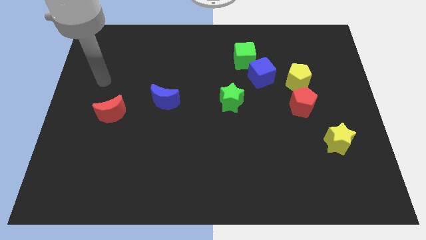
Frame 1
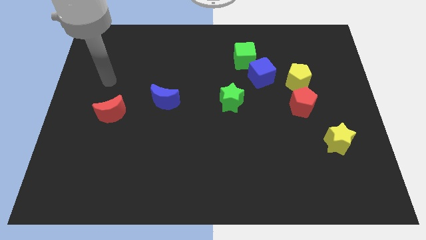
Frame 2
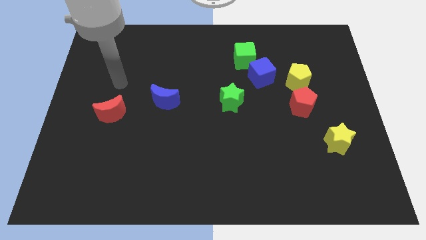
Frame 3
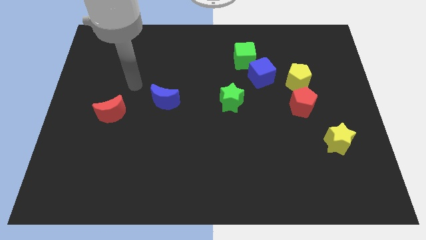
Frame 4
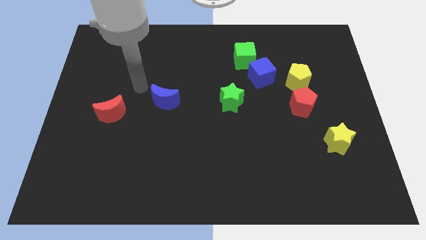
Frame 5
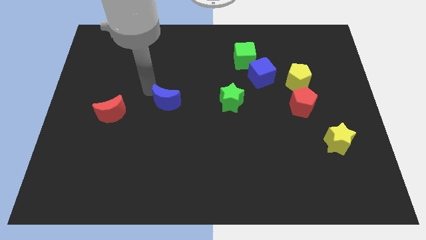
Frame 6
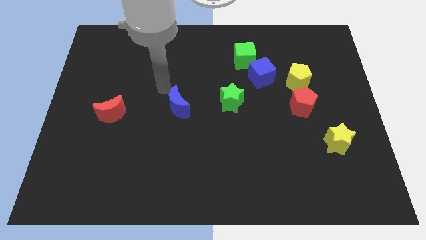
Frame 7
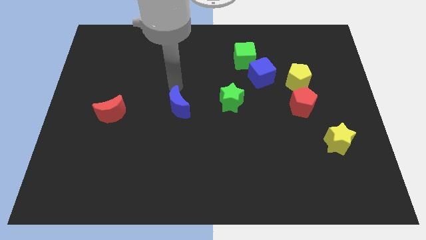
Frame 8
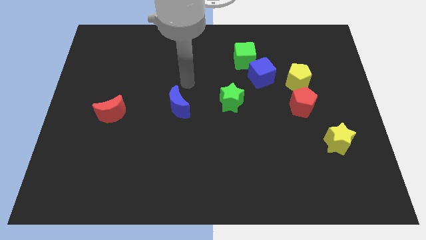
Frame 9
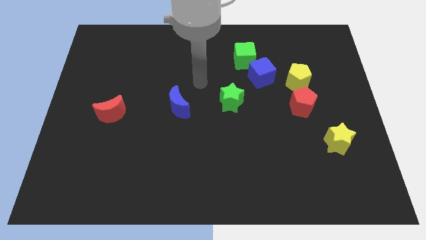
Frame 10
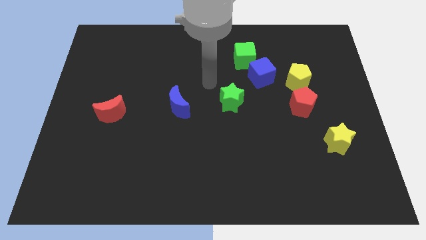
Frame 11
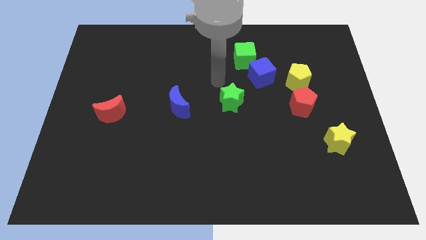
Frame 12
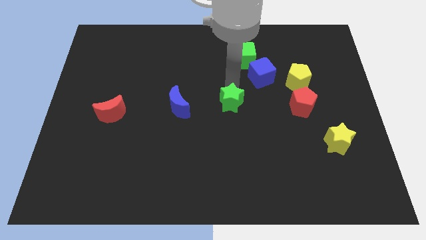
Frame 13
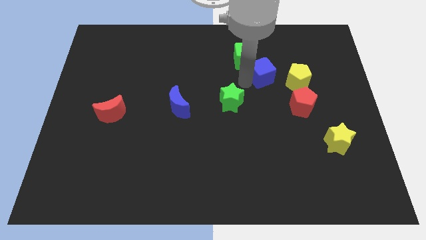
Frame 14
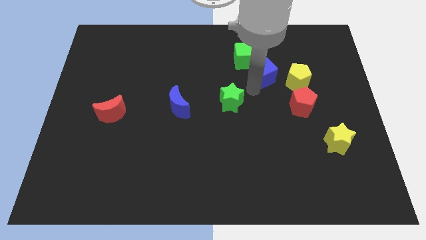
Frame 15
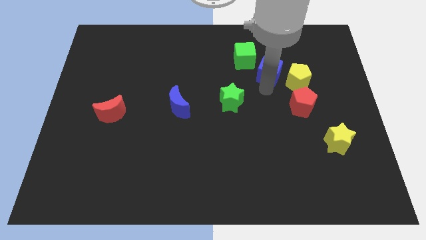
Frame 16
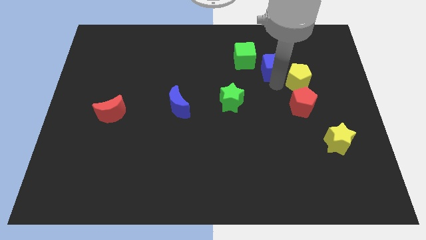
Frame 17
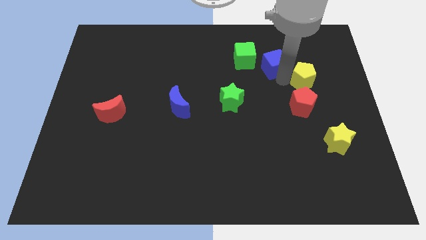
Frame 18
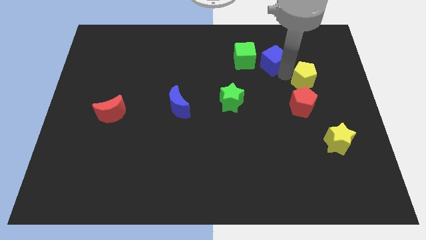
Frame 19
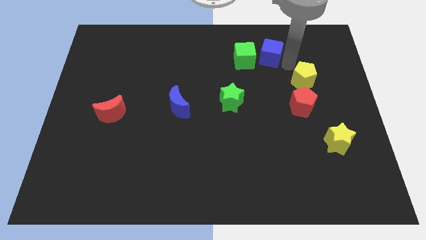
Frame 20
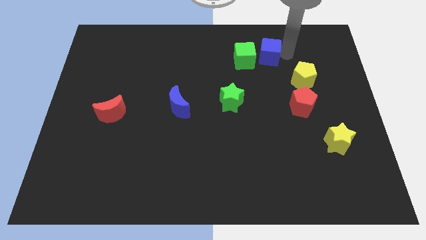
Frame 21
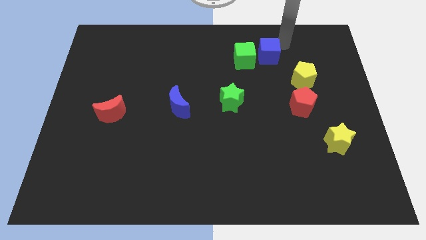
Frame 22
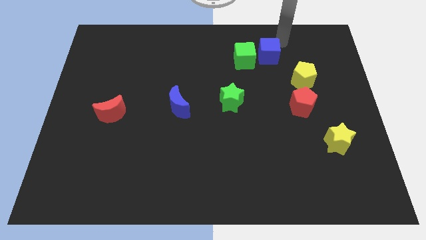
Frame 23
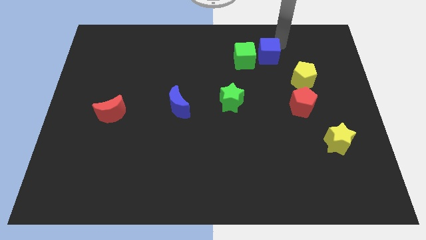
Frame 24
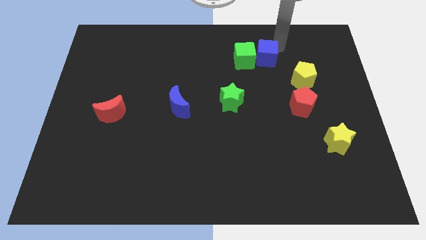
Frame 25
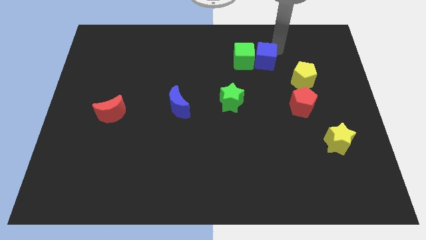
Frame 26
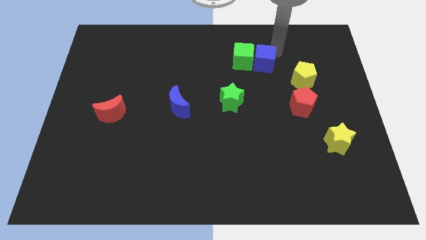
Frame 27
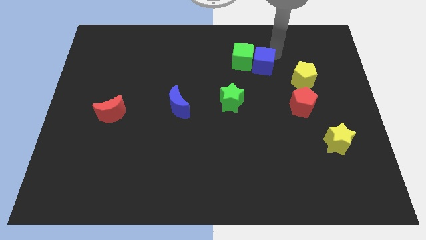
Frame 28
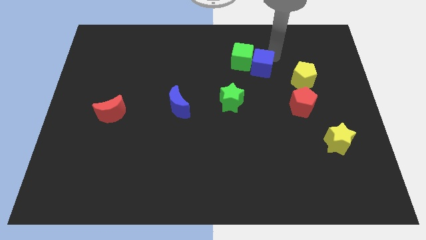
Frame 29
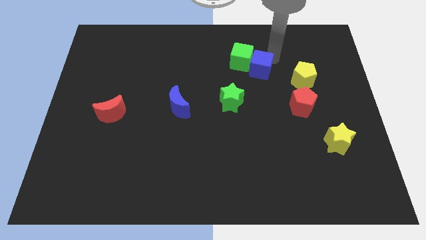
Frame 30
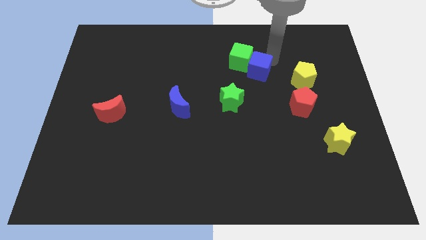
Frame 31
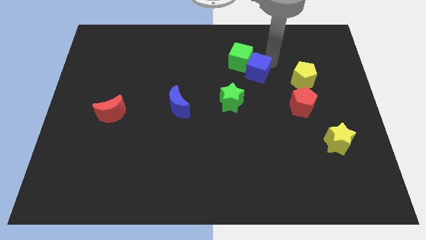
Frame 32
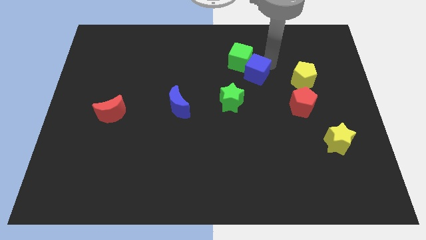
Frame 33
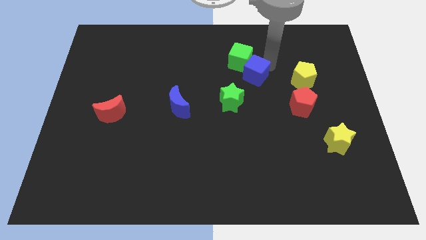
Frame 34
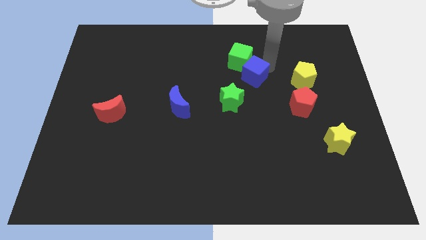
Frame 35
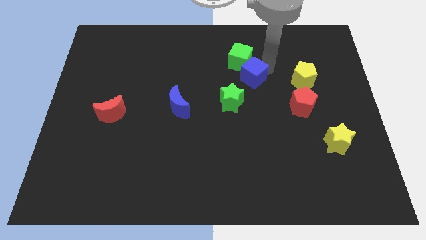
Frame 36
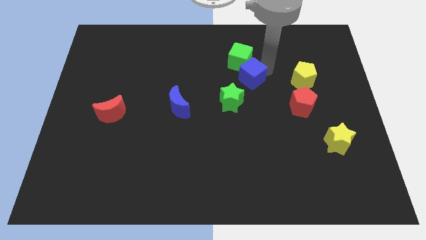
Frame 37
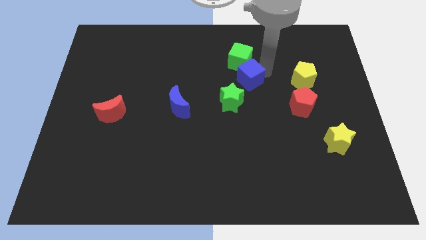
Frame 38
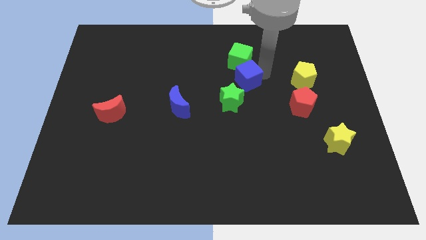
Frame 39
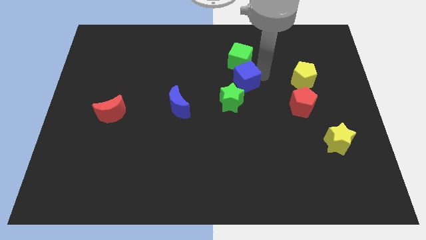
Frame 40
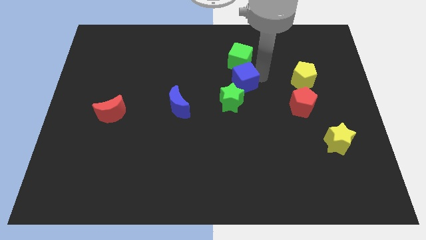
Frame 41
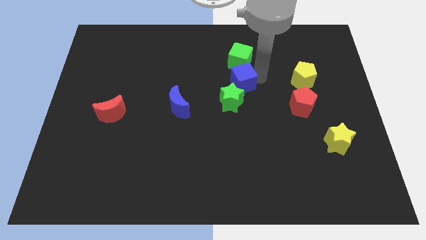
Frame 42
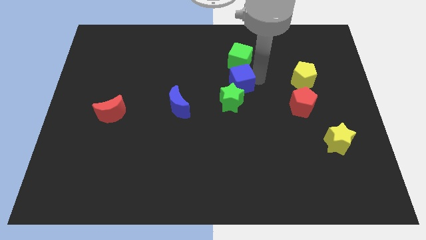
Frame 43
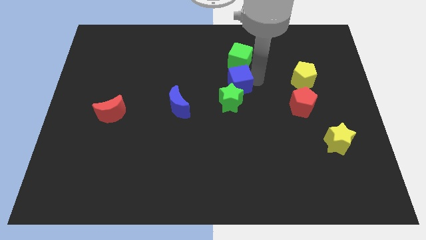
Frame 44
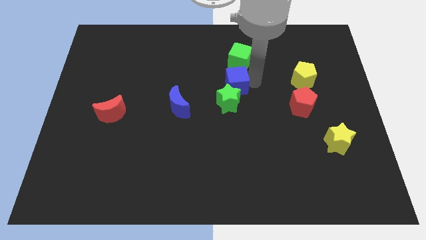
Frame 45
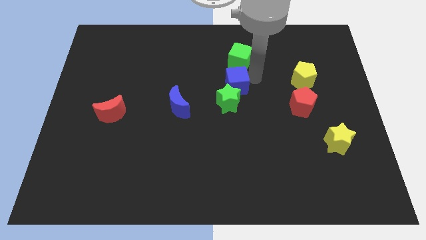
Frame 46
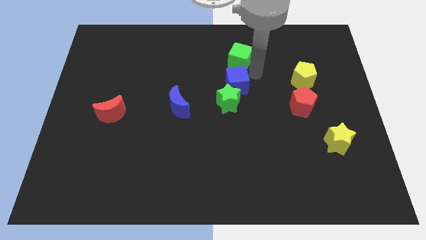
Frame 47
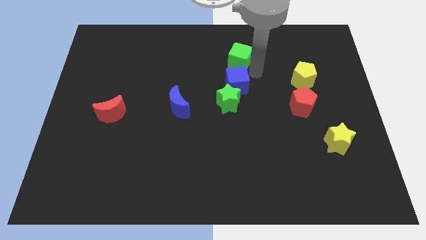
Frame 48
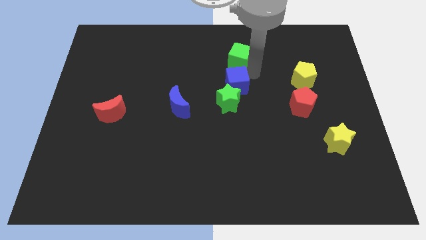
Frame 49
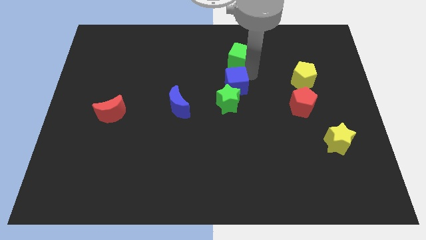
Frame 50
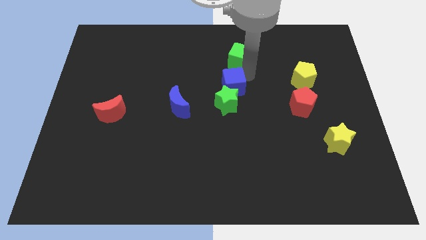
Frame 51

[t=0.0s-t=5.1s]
move the blue cube a bit down and to the left

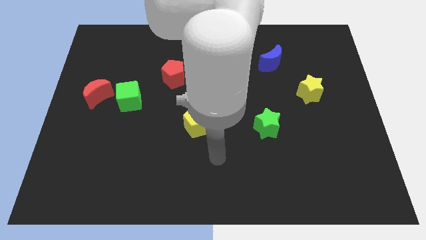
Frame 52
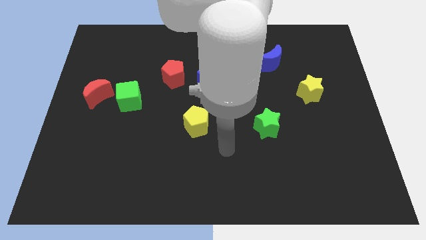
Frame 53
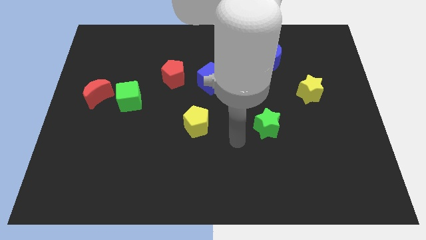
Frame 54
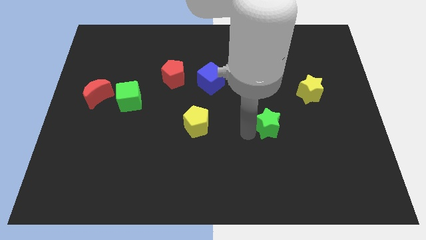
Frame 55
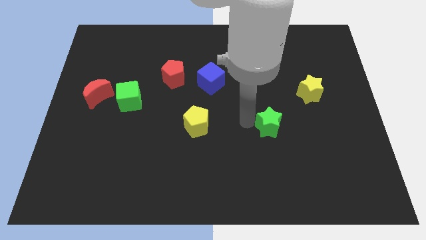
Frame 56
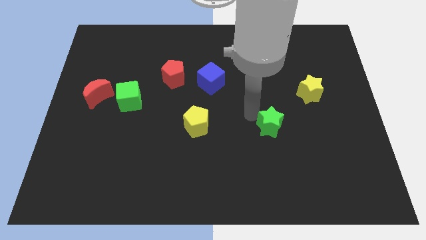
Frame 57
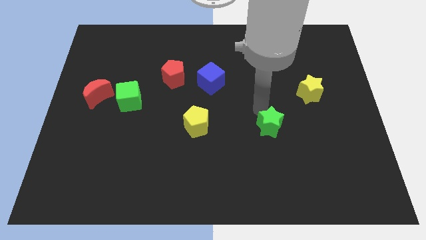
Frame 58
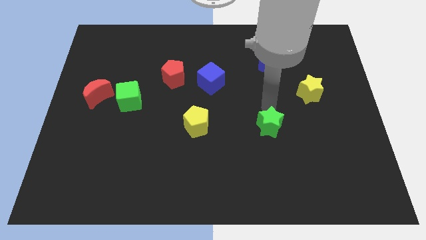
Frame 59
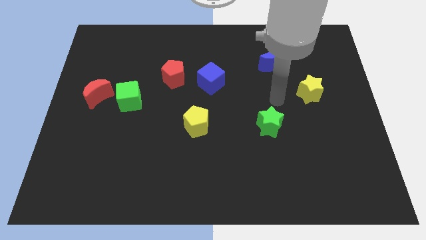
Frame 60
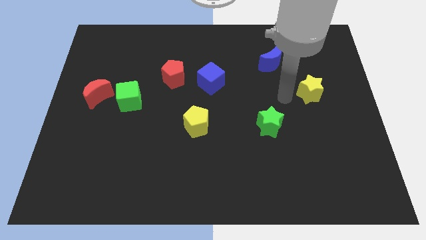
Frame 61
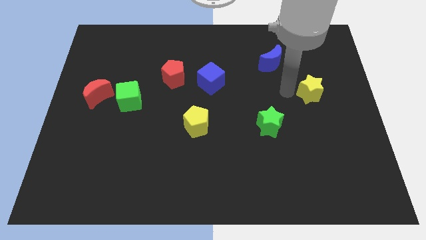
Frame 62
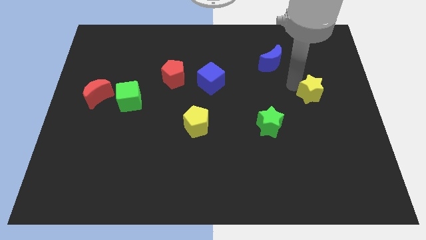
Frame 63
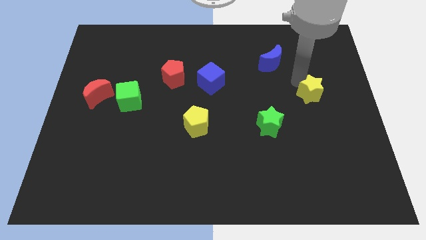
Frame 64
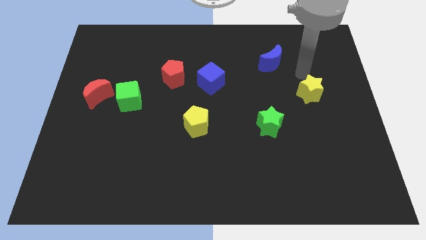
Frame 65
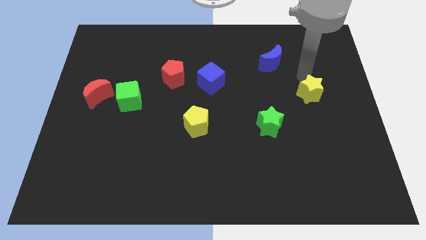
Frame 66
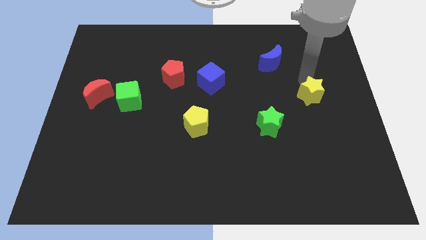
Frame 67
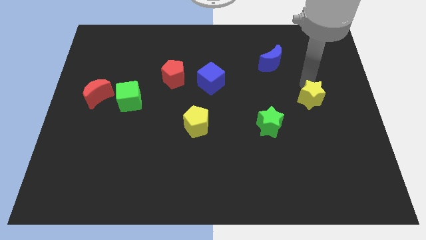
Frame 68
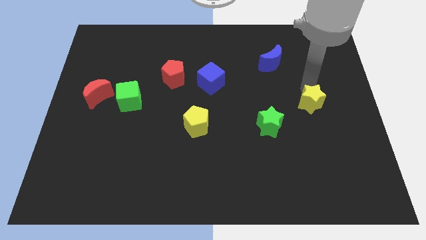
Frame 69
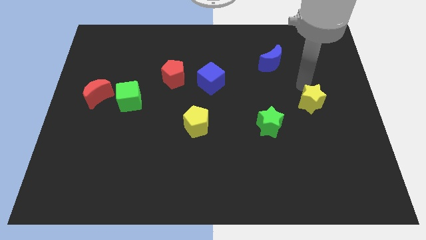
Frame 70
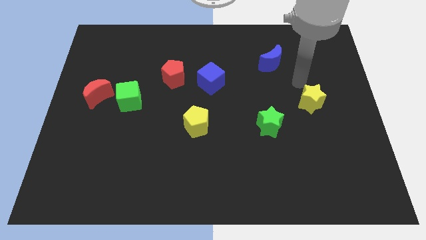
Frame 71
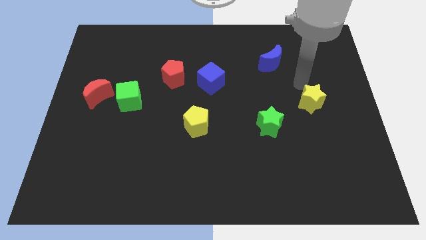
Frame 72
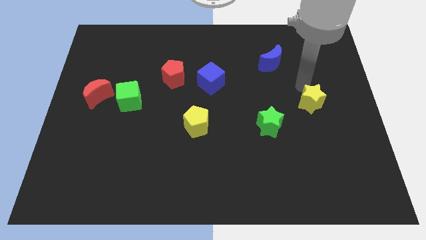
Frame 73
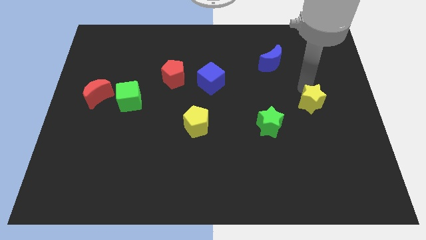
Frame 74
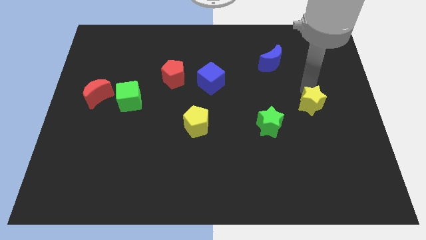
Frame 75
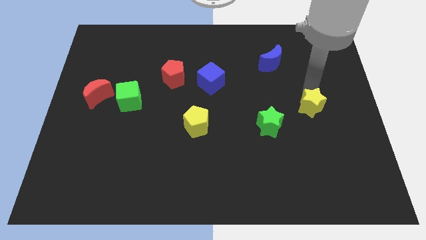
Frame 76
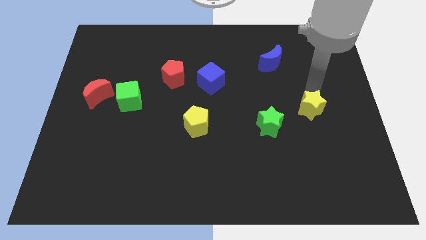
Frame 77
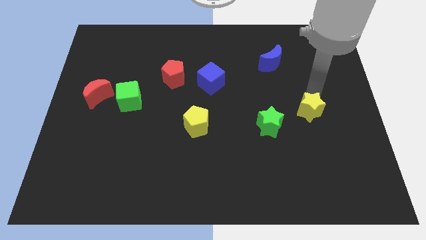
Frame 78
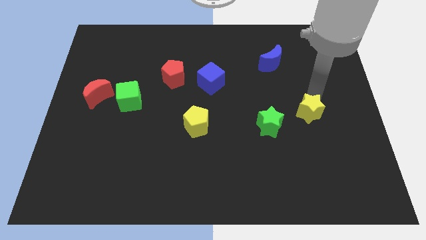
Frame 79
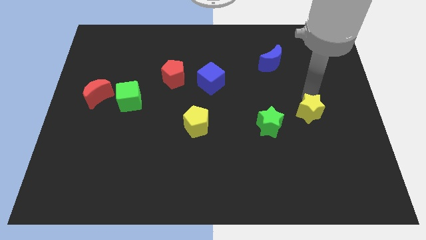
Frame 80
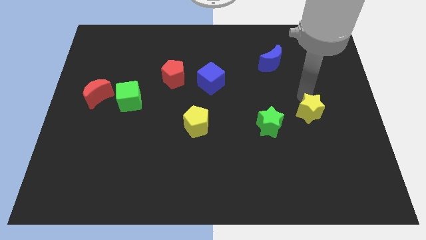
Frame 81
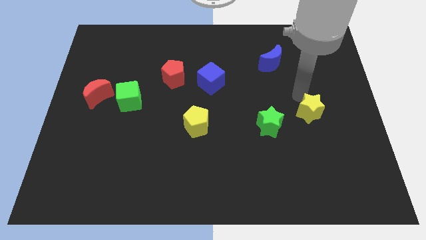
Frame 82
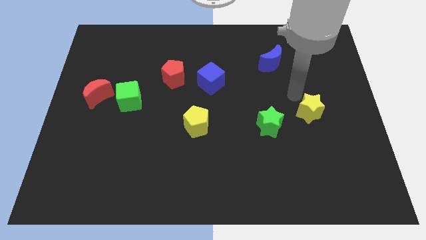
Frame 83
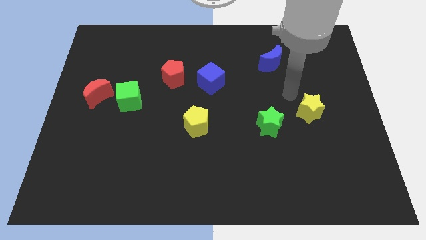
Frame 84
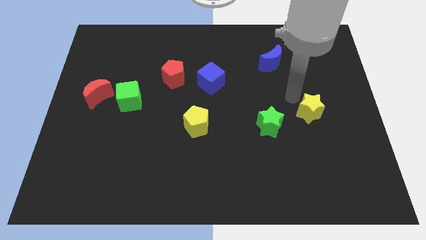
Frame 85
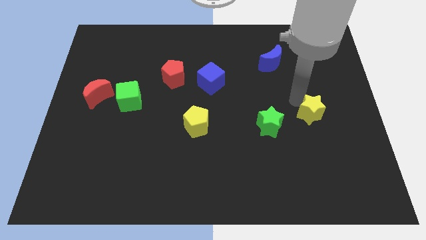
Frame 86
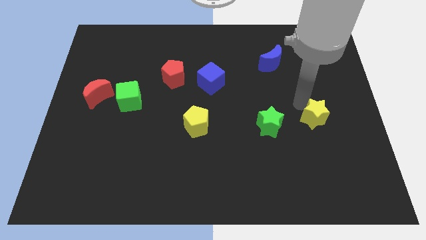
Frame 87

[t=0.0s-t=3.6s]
slide the yellow star somewhat down
